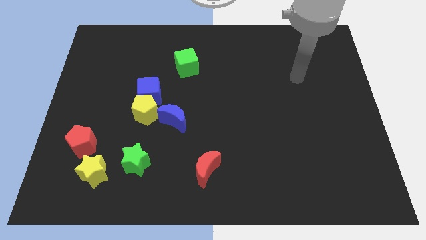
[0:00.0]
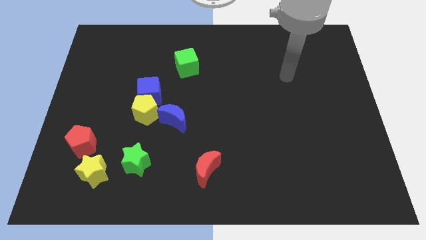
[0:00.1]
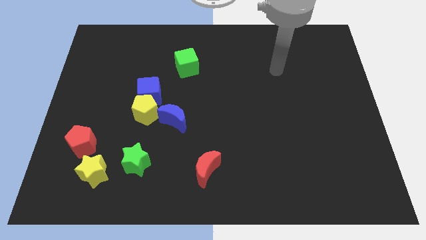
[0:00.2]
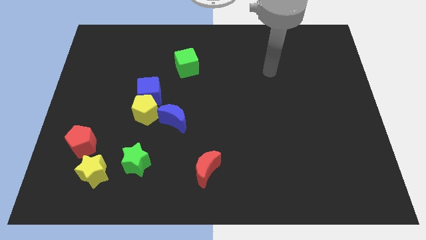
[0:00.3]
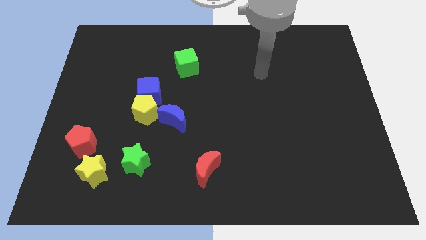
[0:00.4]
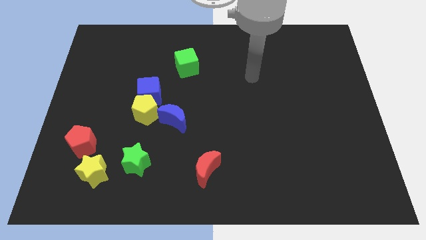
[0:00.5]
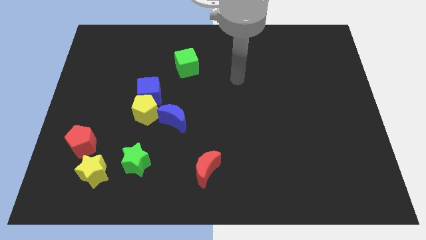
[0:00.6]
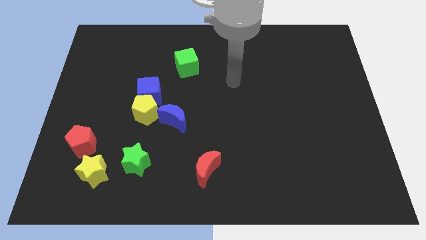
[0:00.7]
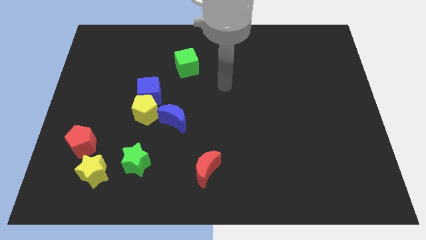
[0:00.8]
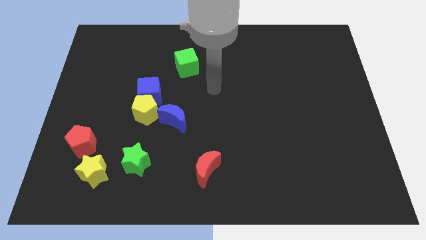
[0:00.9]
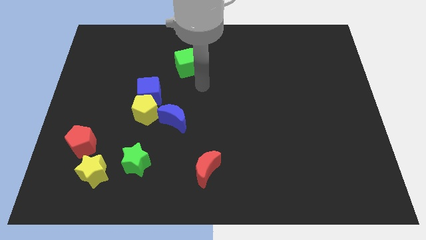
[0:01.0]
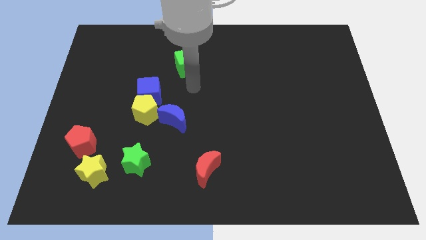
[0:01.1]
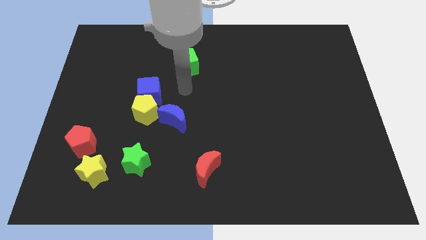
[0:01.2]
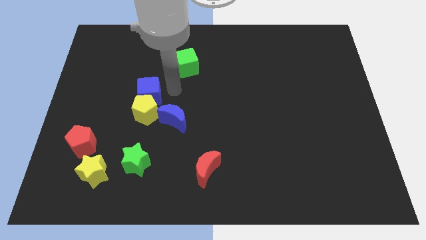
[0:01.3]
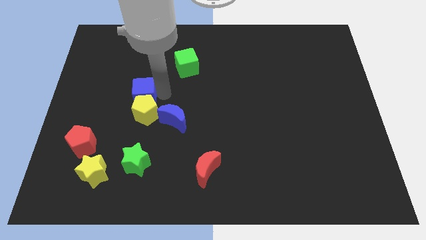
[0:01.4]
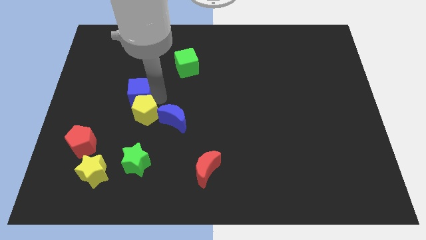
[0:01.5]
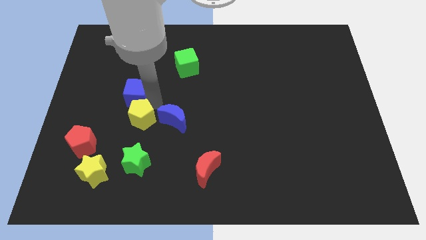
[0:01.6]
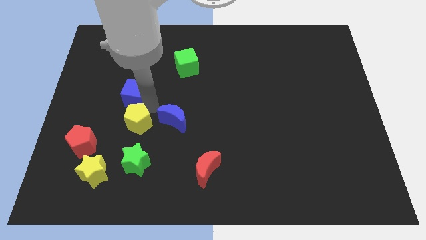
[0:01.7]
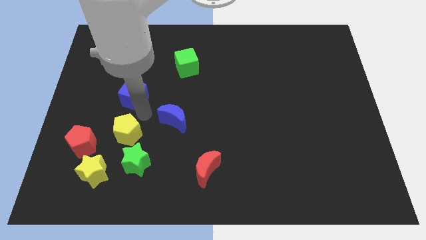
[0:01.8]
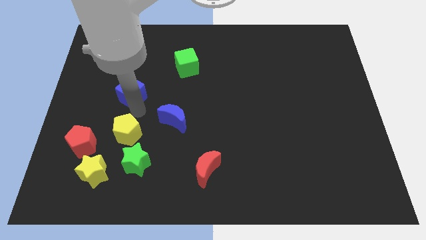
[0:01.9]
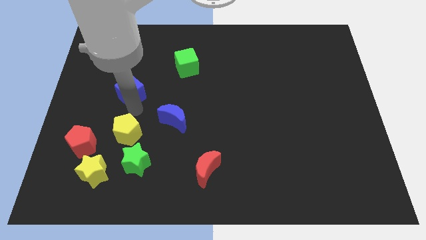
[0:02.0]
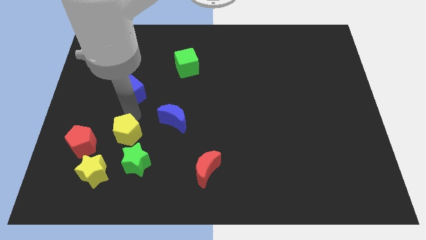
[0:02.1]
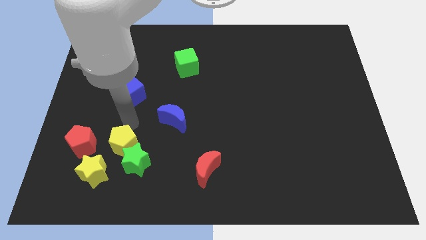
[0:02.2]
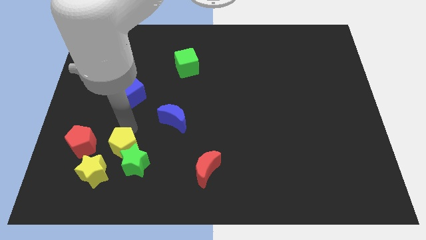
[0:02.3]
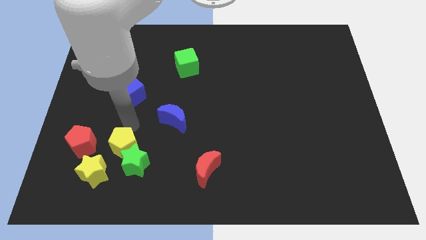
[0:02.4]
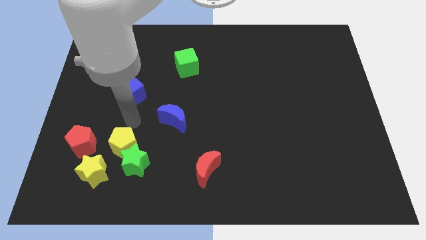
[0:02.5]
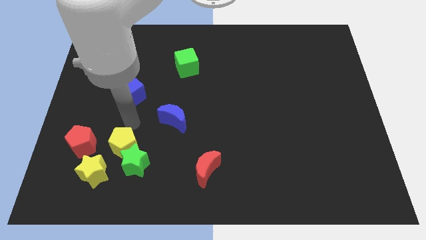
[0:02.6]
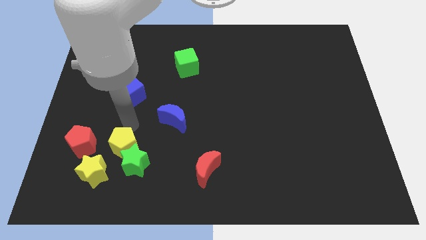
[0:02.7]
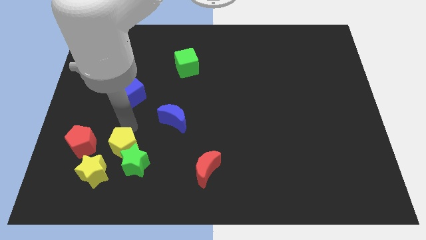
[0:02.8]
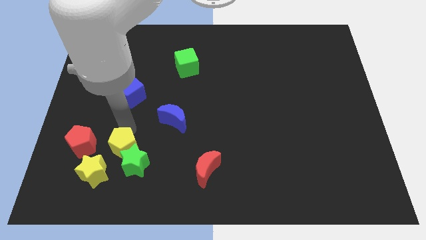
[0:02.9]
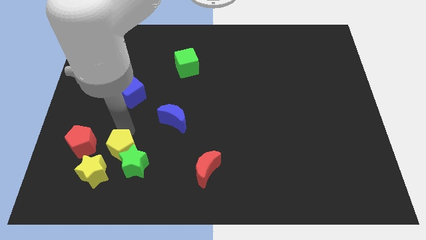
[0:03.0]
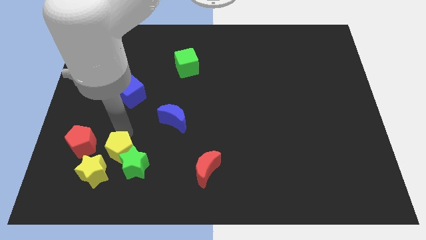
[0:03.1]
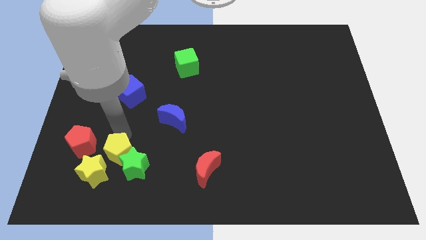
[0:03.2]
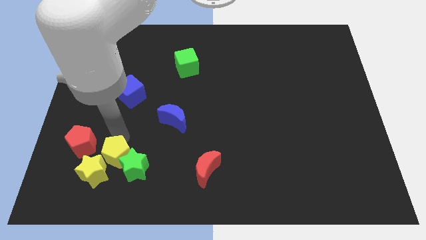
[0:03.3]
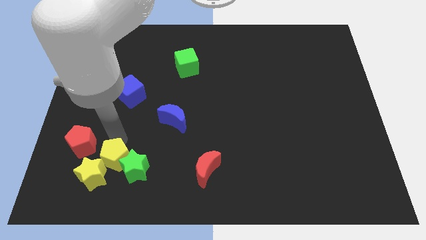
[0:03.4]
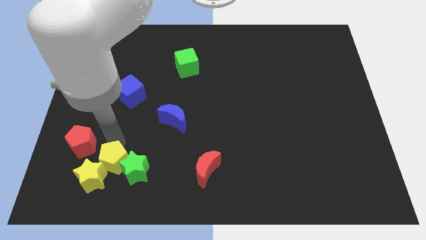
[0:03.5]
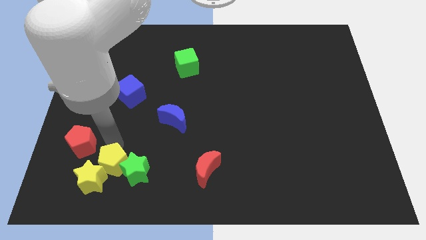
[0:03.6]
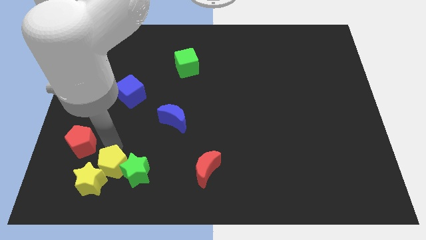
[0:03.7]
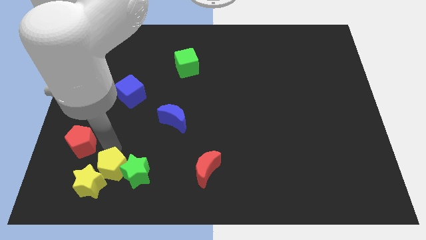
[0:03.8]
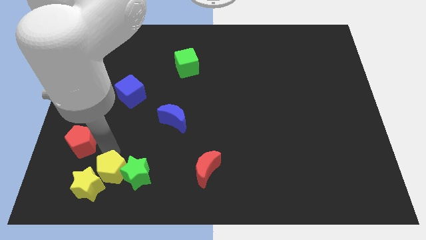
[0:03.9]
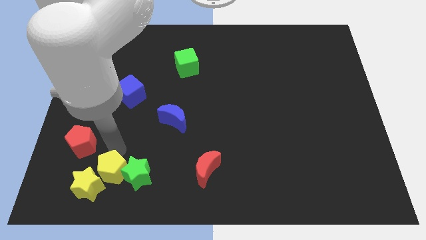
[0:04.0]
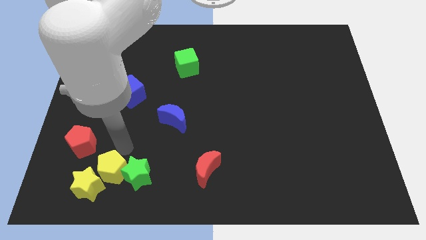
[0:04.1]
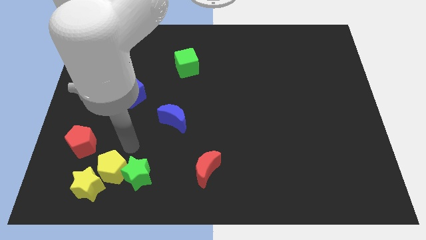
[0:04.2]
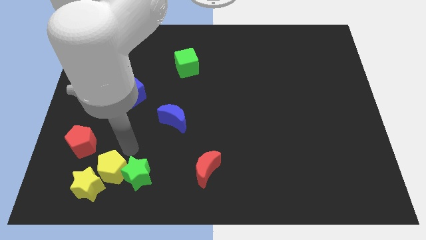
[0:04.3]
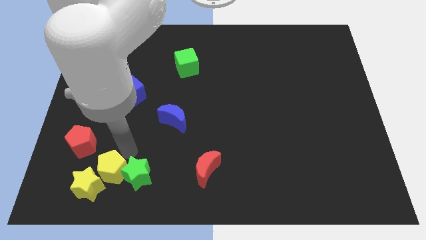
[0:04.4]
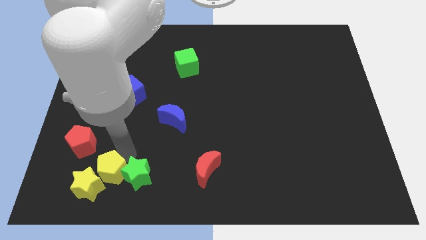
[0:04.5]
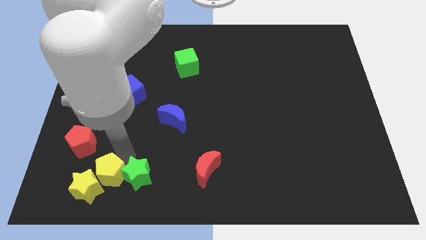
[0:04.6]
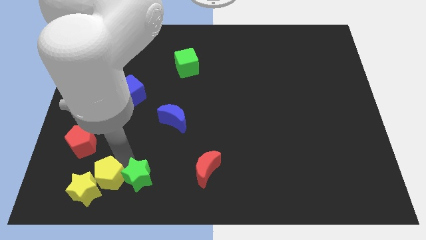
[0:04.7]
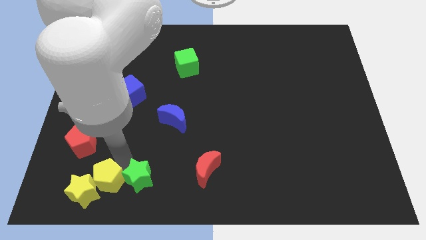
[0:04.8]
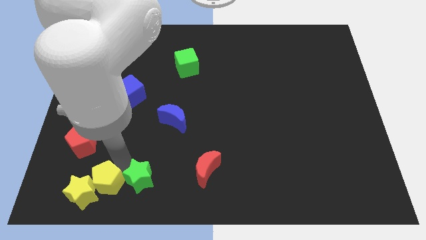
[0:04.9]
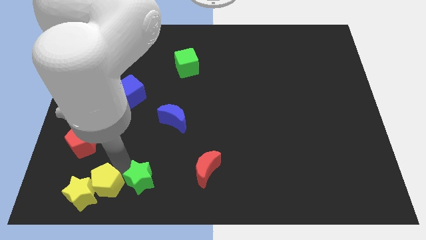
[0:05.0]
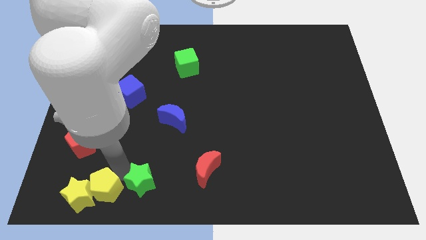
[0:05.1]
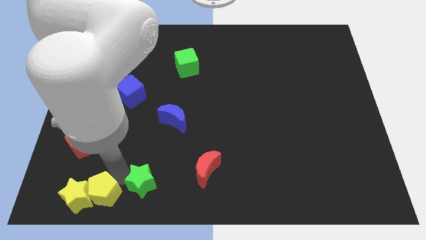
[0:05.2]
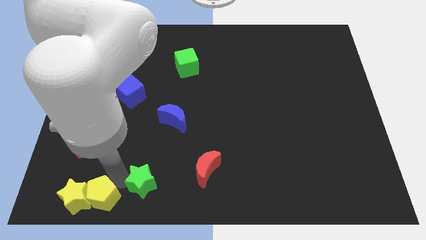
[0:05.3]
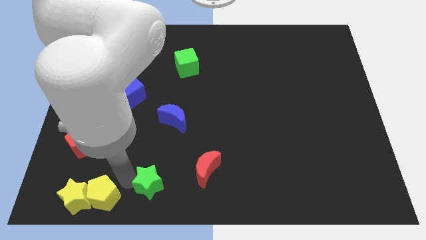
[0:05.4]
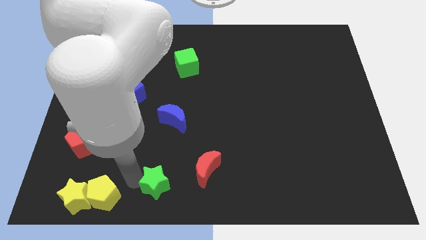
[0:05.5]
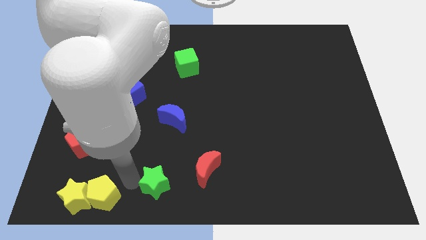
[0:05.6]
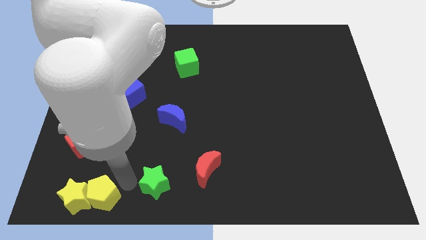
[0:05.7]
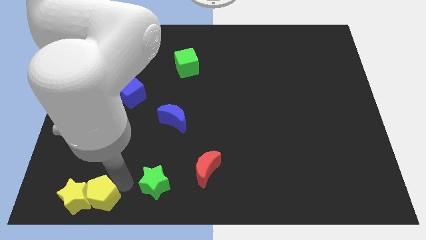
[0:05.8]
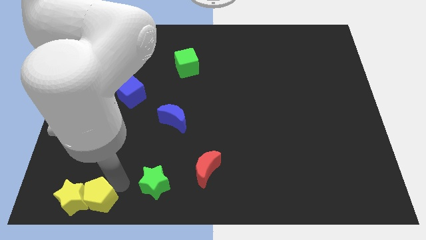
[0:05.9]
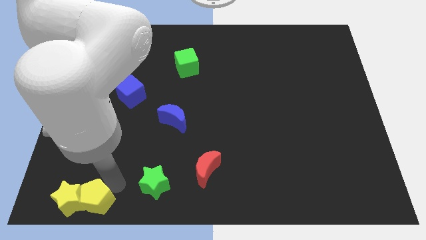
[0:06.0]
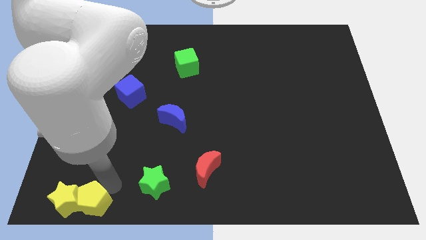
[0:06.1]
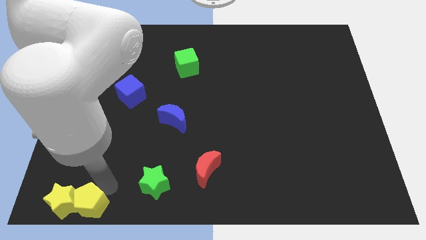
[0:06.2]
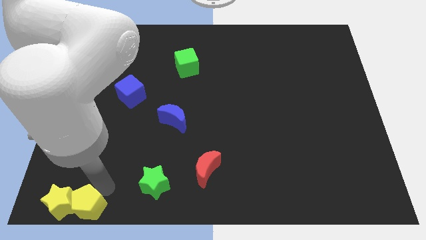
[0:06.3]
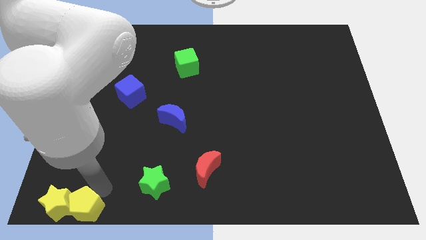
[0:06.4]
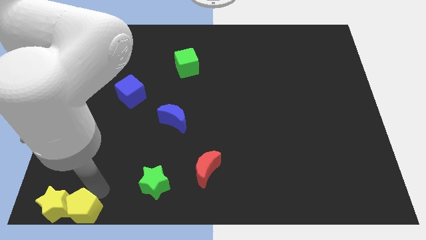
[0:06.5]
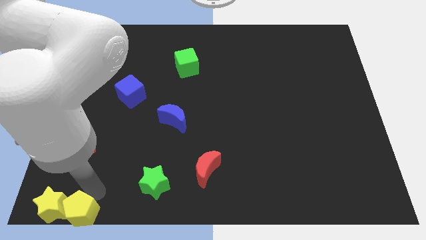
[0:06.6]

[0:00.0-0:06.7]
move the yellow pentagon to the lower left corner
